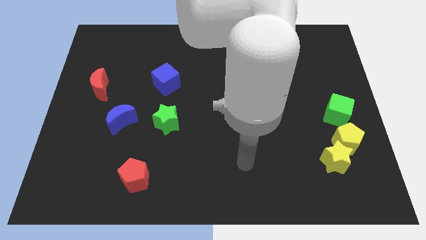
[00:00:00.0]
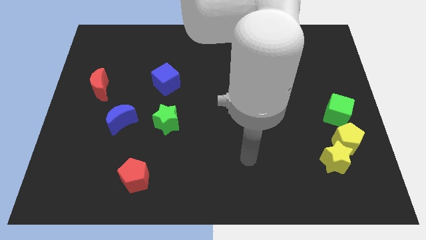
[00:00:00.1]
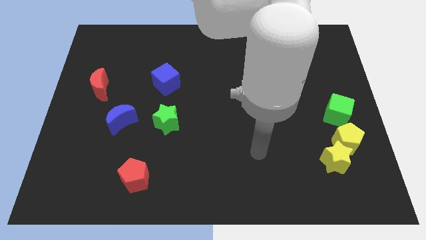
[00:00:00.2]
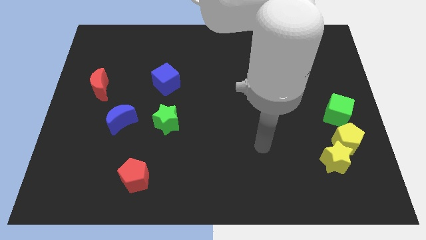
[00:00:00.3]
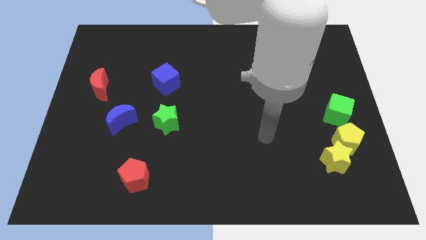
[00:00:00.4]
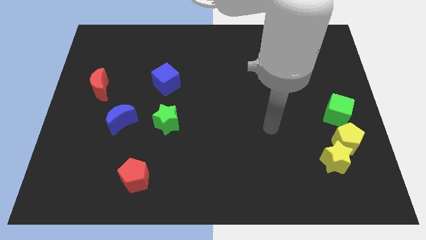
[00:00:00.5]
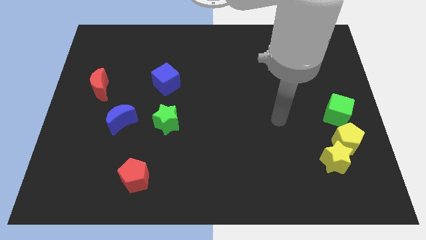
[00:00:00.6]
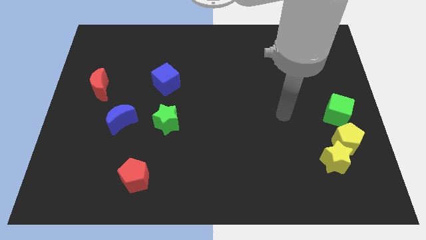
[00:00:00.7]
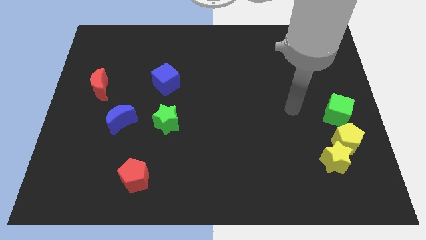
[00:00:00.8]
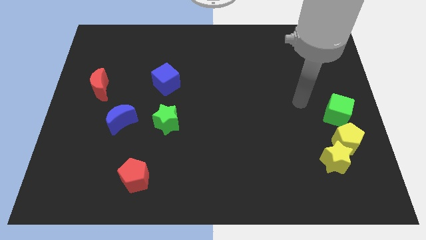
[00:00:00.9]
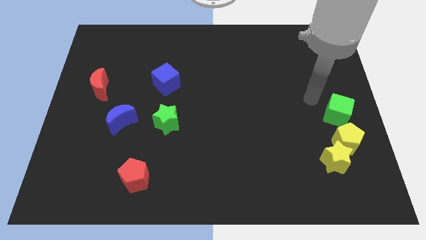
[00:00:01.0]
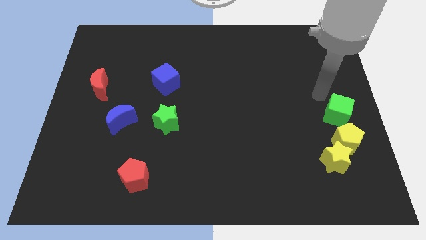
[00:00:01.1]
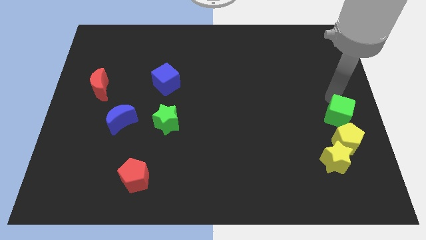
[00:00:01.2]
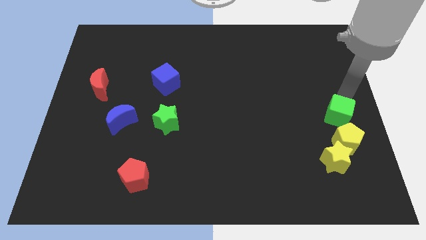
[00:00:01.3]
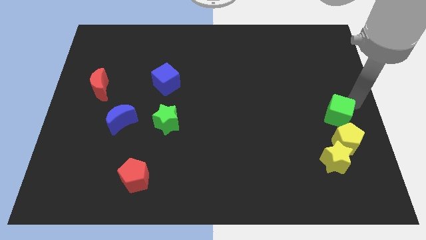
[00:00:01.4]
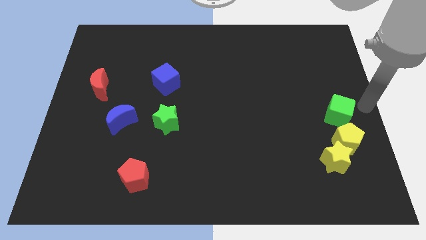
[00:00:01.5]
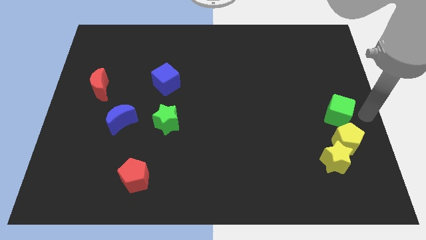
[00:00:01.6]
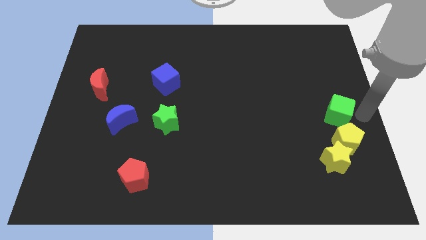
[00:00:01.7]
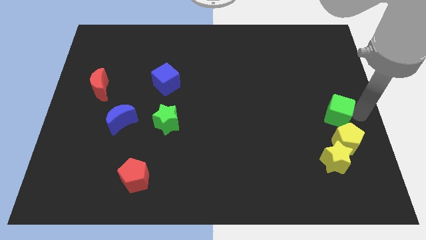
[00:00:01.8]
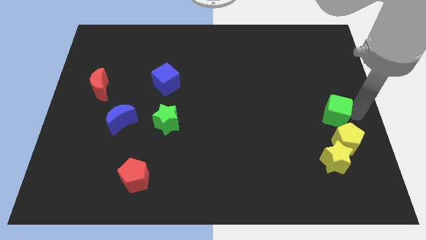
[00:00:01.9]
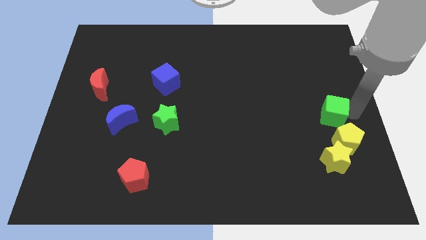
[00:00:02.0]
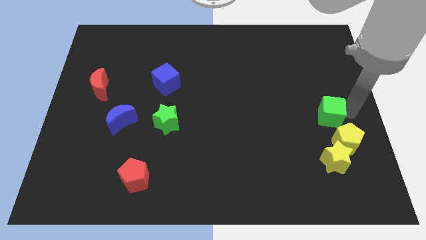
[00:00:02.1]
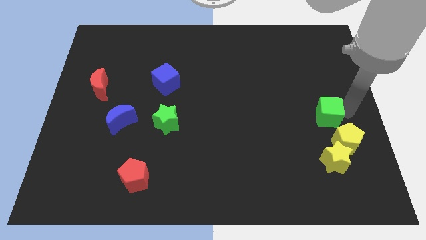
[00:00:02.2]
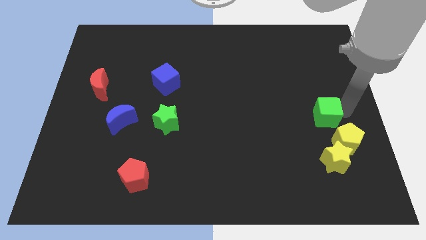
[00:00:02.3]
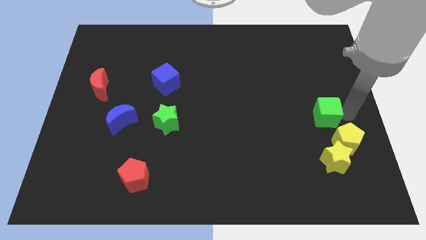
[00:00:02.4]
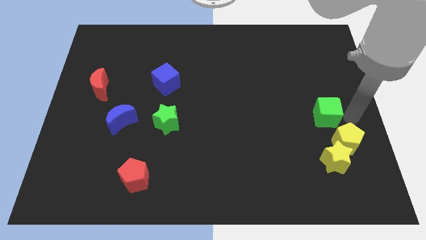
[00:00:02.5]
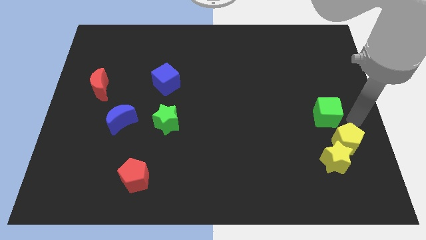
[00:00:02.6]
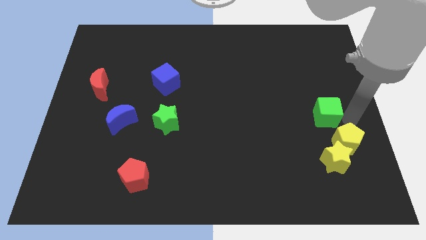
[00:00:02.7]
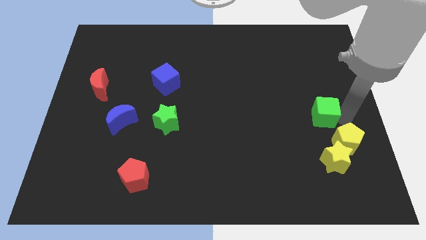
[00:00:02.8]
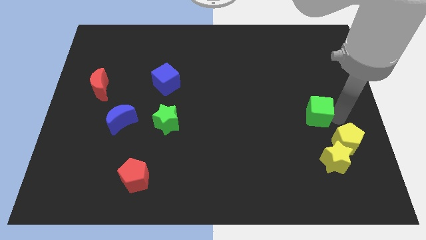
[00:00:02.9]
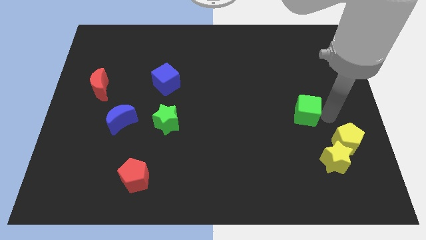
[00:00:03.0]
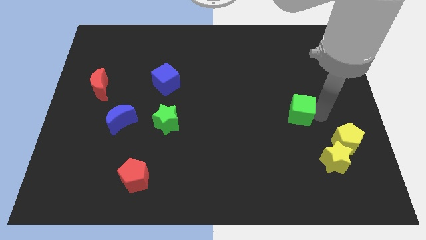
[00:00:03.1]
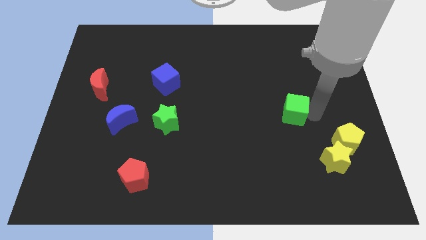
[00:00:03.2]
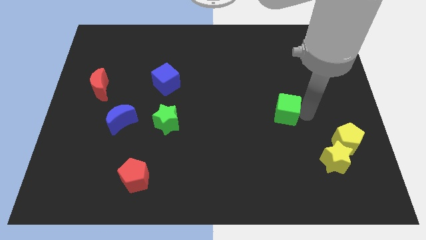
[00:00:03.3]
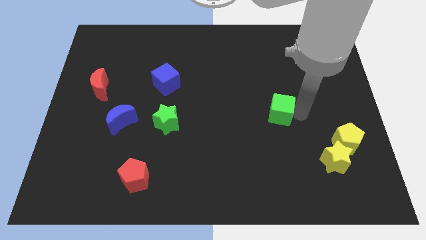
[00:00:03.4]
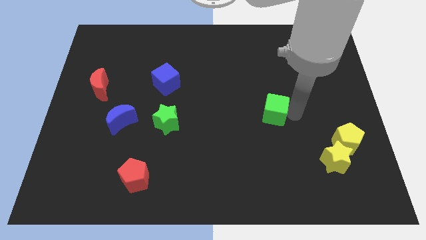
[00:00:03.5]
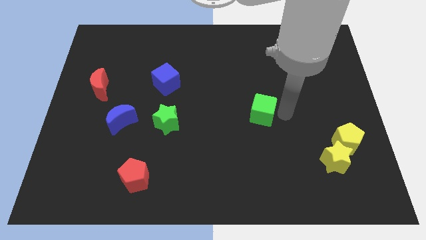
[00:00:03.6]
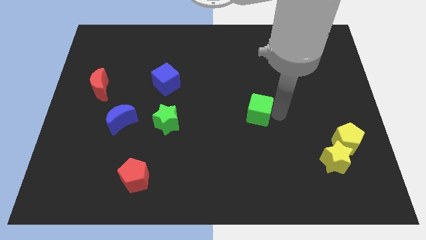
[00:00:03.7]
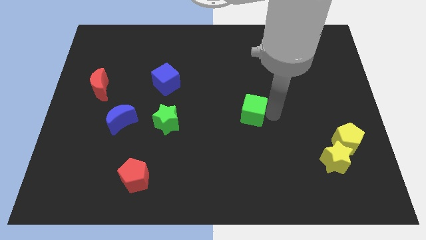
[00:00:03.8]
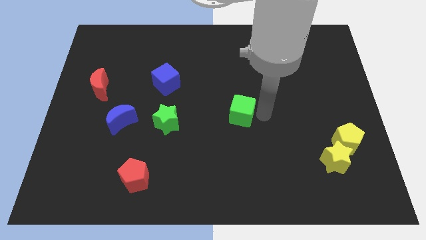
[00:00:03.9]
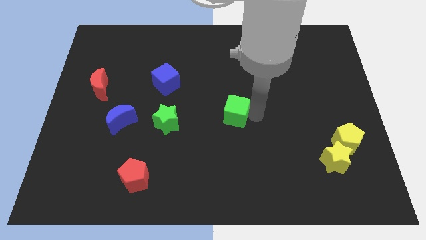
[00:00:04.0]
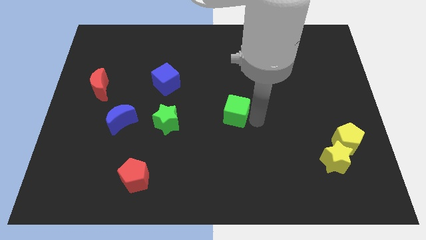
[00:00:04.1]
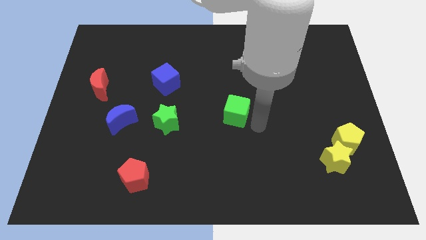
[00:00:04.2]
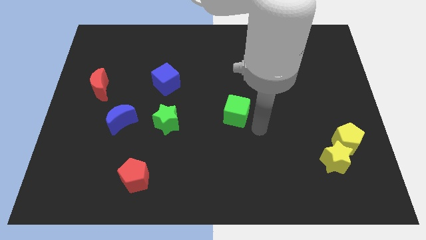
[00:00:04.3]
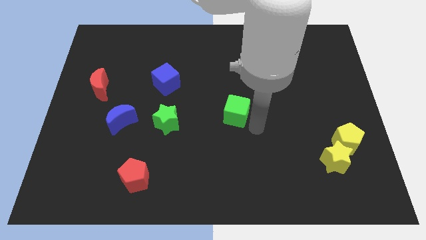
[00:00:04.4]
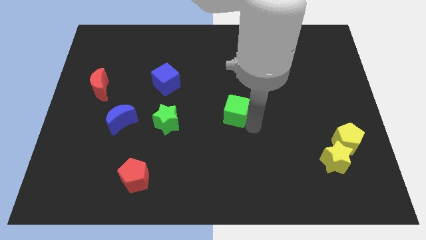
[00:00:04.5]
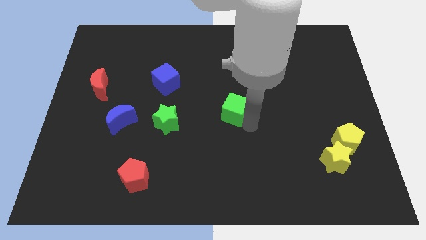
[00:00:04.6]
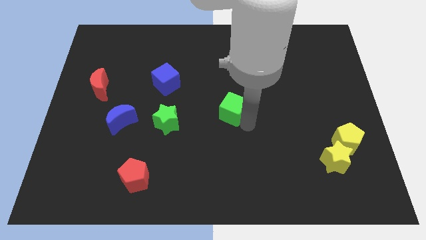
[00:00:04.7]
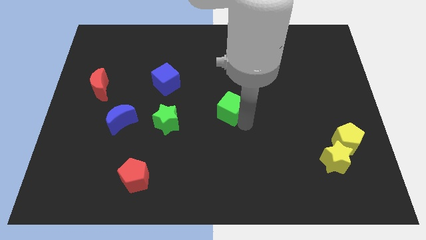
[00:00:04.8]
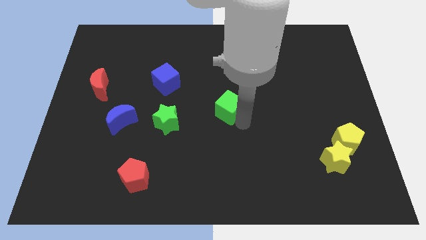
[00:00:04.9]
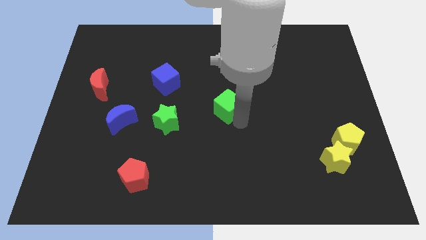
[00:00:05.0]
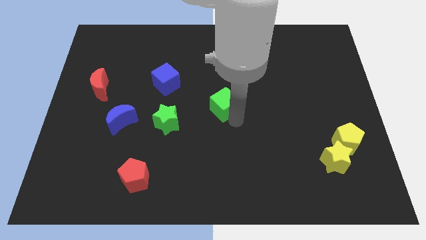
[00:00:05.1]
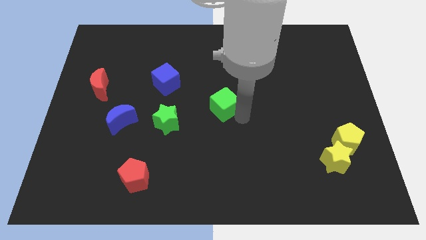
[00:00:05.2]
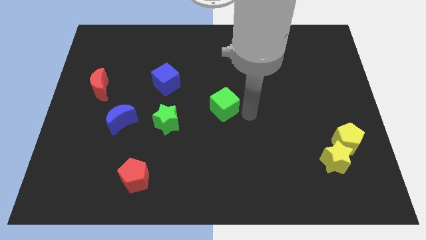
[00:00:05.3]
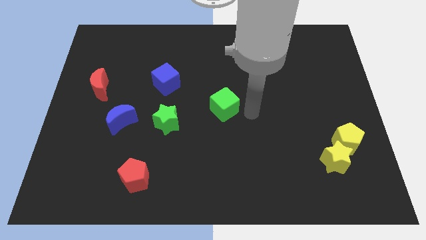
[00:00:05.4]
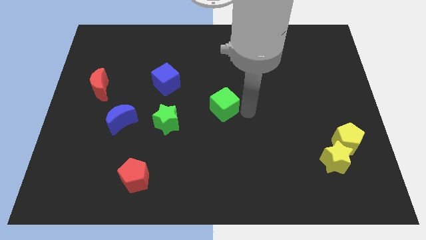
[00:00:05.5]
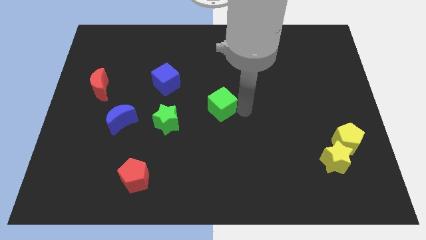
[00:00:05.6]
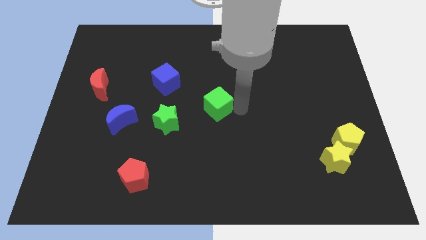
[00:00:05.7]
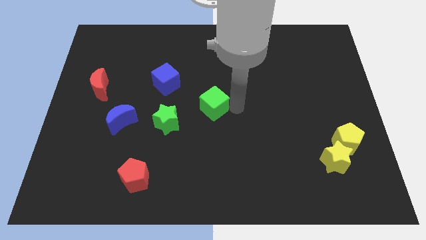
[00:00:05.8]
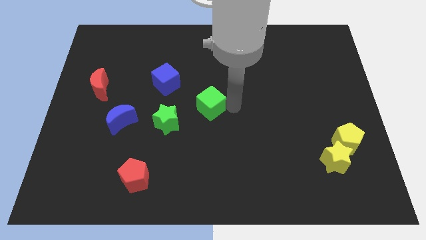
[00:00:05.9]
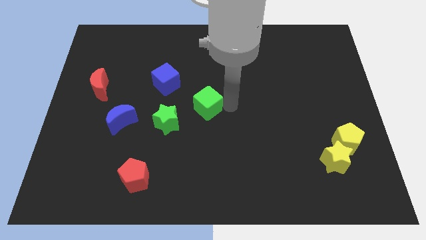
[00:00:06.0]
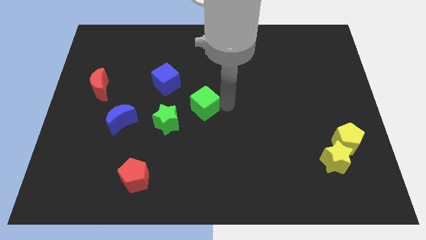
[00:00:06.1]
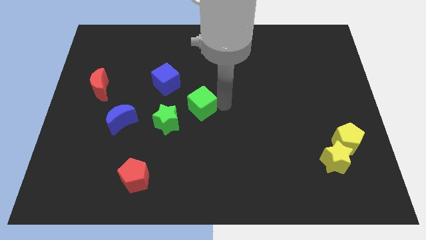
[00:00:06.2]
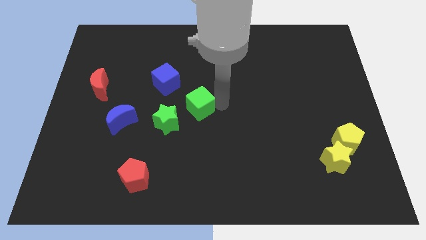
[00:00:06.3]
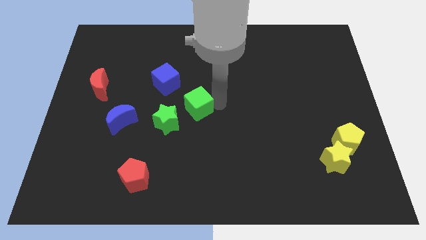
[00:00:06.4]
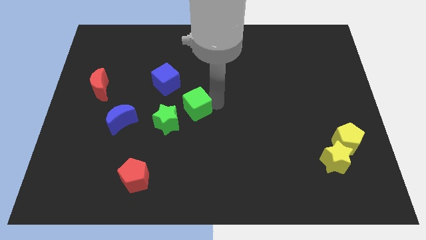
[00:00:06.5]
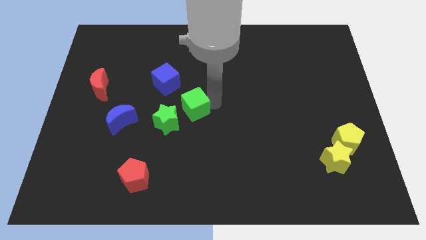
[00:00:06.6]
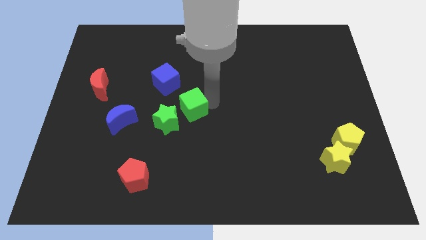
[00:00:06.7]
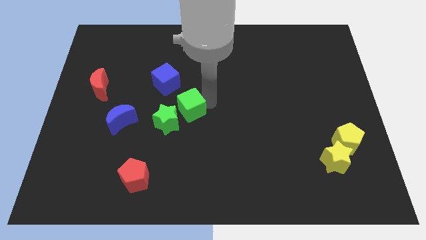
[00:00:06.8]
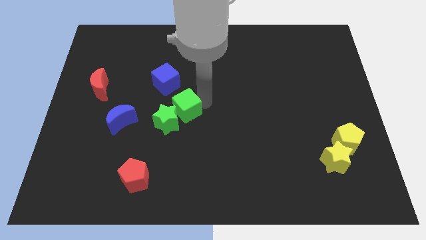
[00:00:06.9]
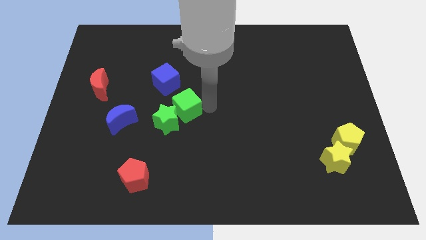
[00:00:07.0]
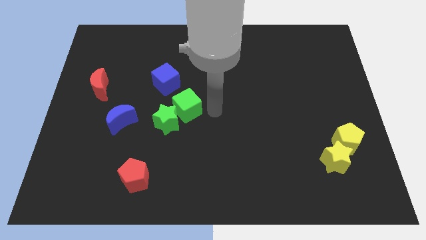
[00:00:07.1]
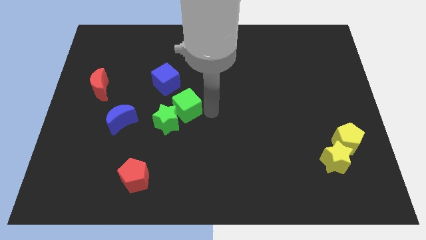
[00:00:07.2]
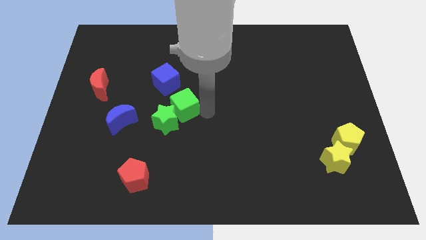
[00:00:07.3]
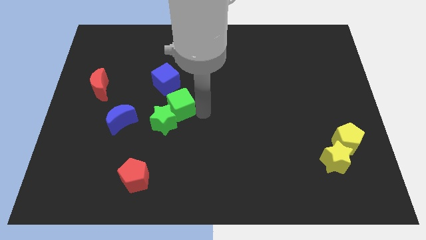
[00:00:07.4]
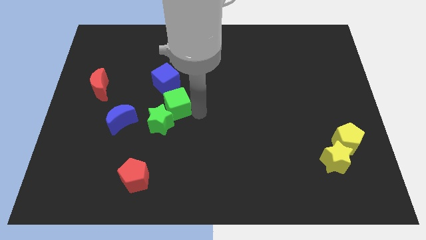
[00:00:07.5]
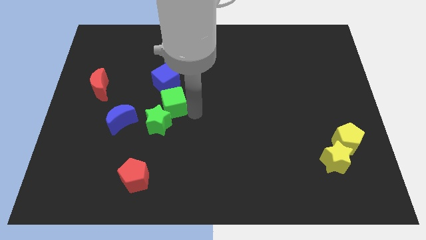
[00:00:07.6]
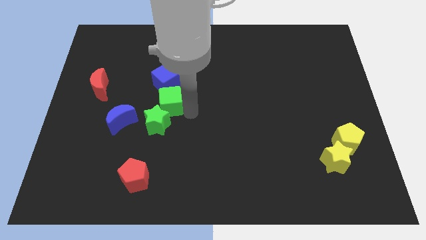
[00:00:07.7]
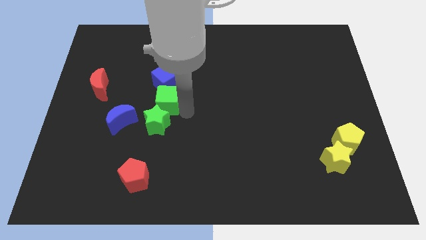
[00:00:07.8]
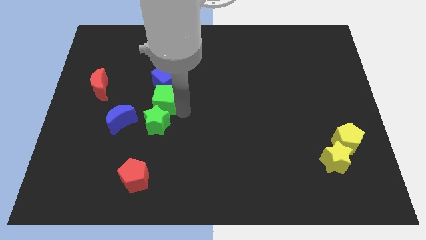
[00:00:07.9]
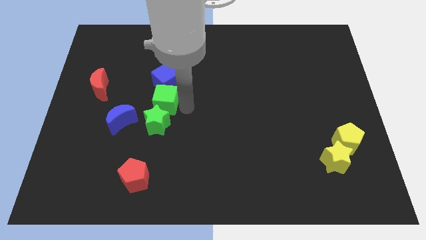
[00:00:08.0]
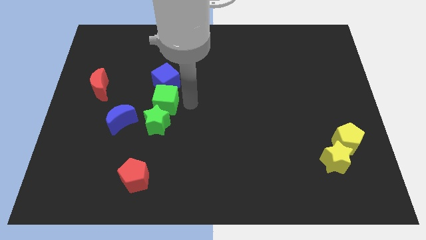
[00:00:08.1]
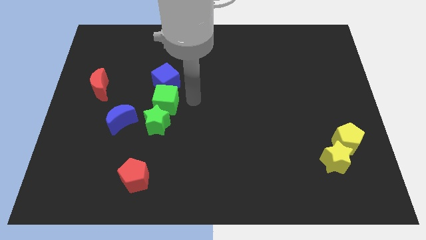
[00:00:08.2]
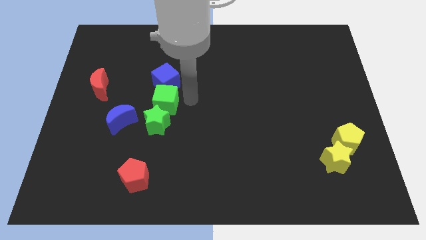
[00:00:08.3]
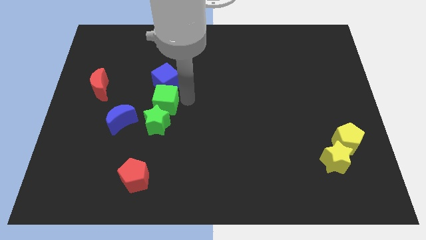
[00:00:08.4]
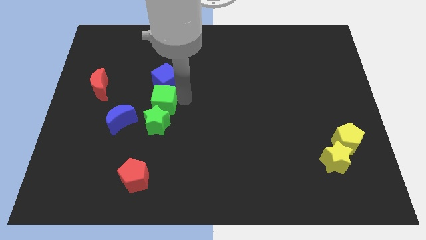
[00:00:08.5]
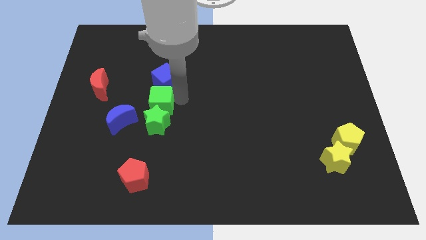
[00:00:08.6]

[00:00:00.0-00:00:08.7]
move the green cube diagonally up and to the left of the green star
